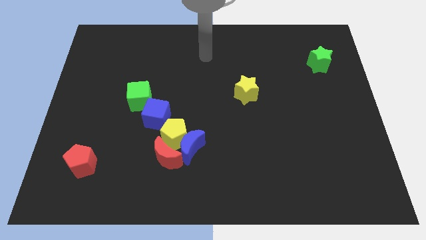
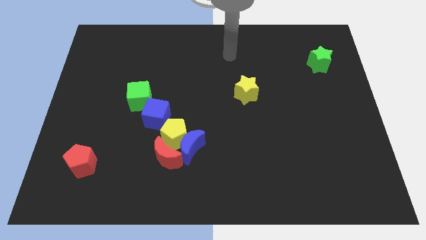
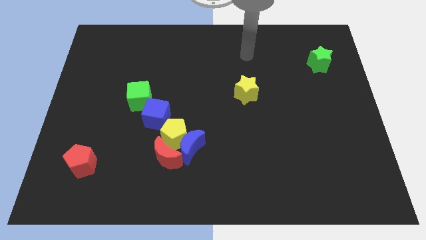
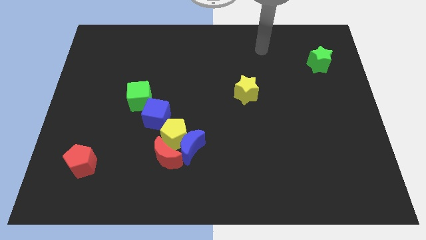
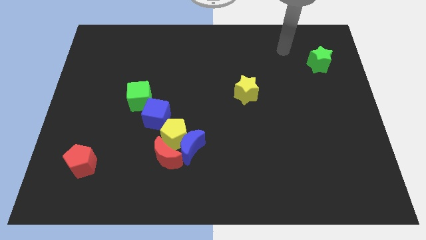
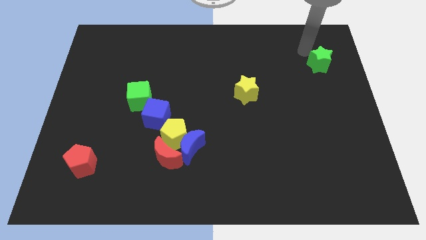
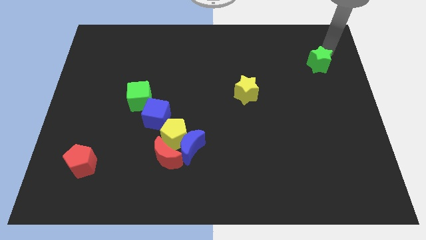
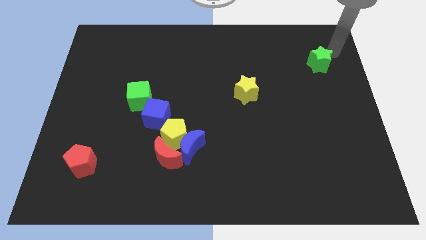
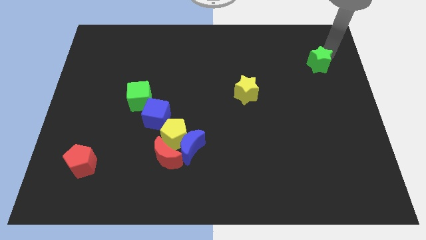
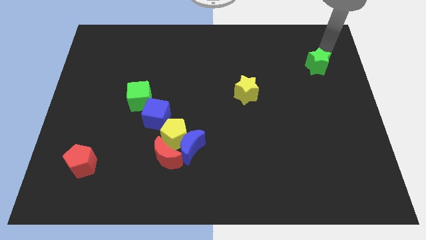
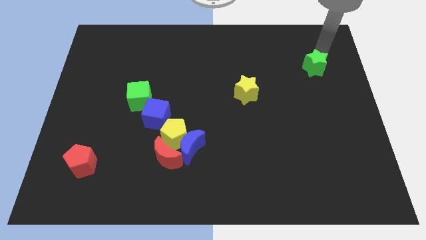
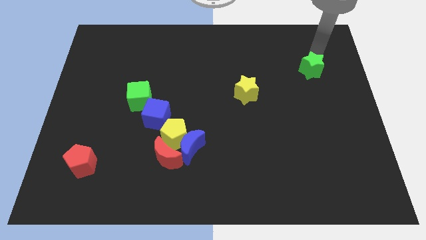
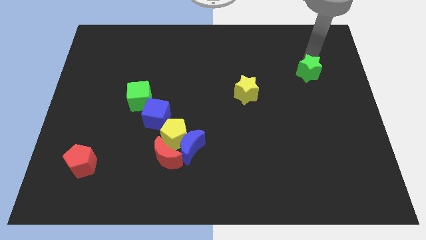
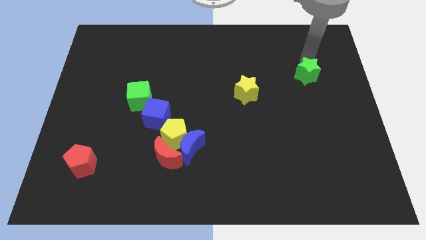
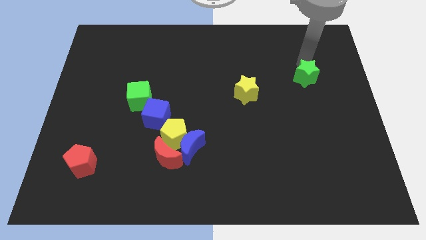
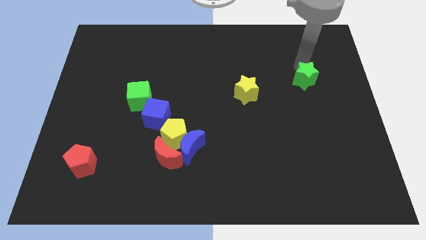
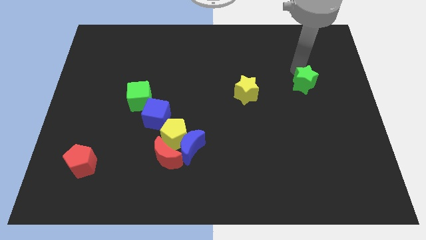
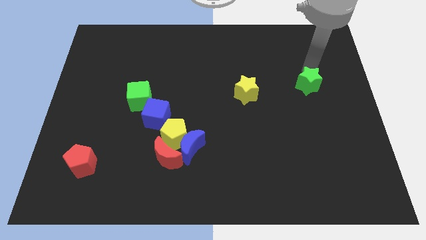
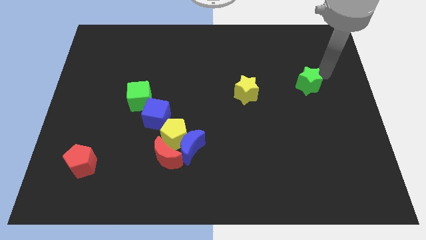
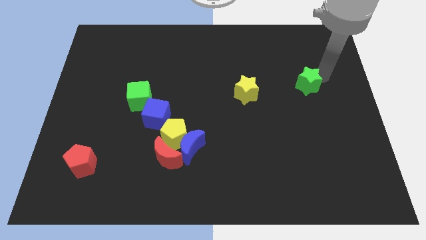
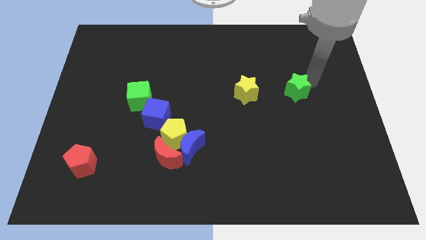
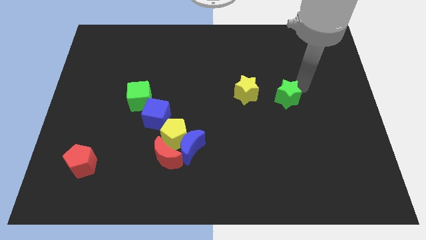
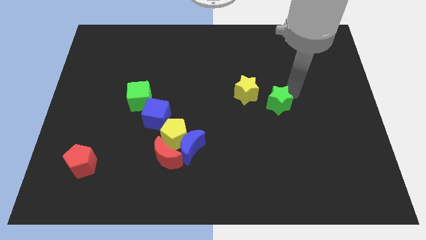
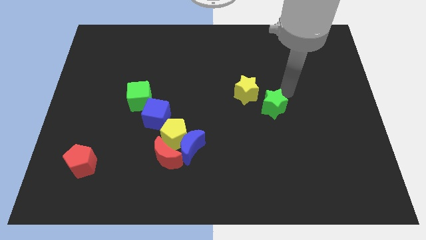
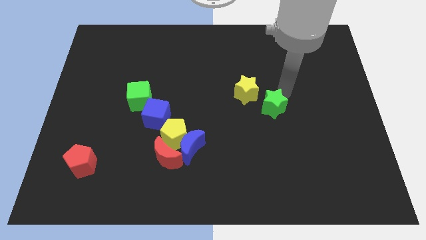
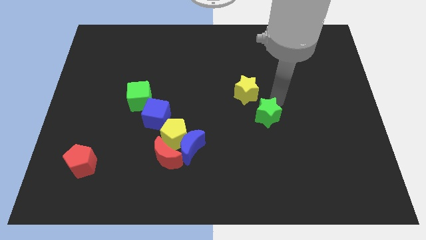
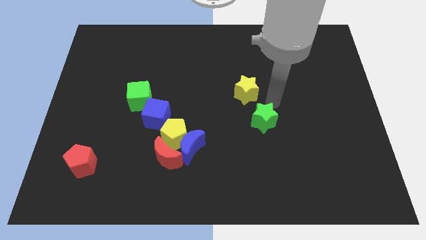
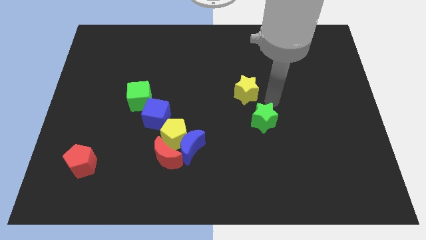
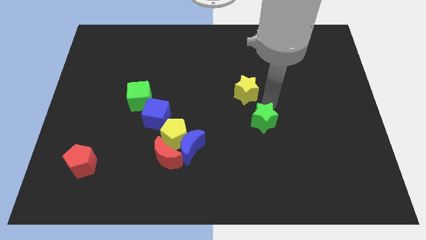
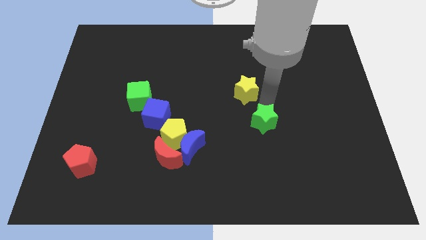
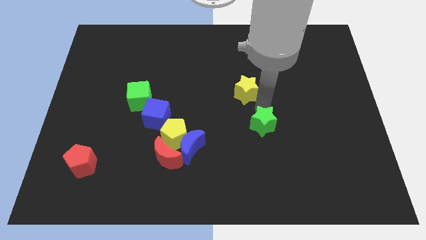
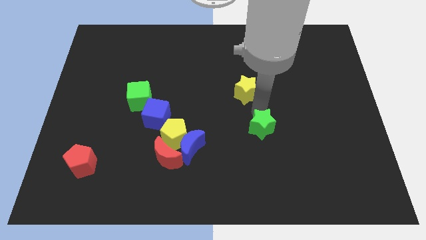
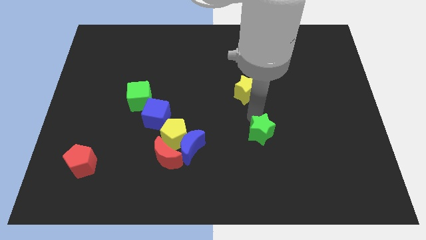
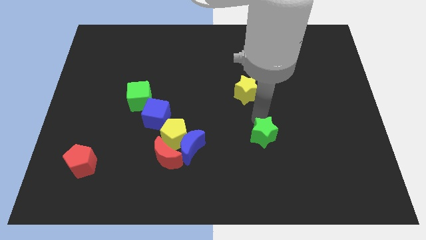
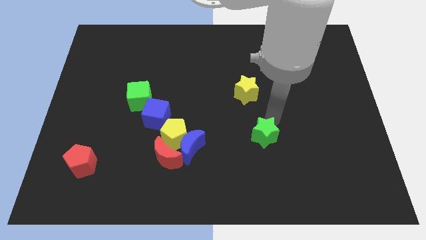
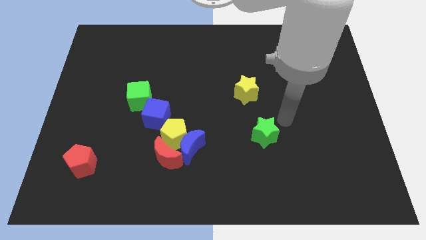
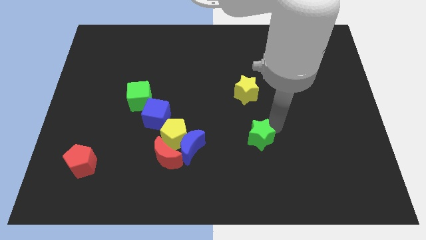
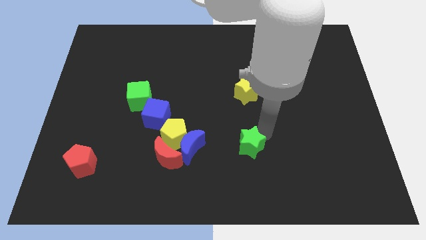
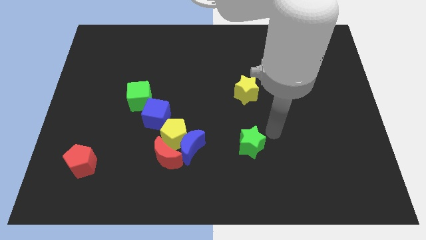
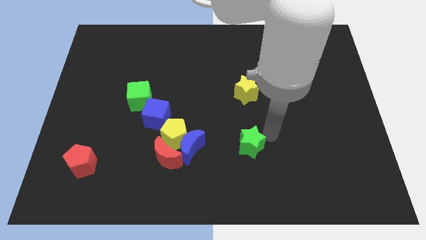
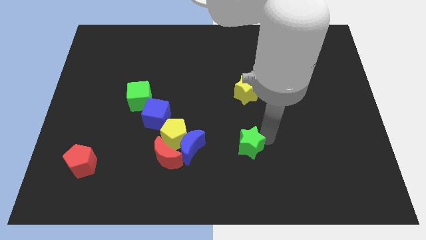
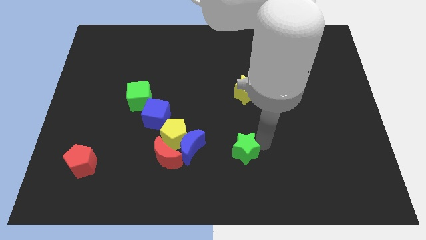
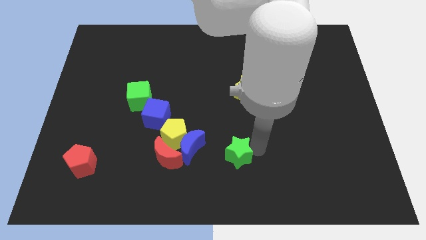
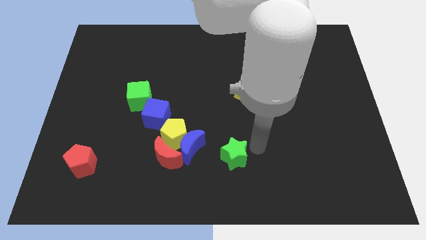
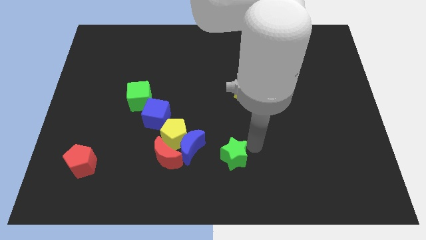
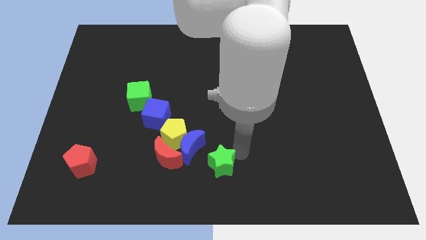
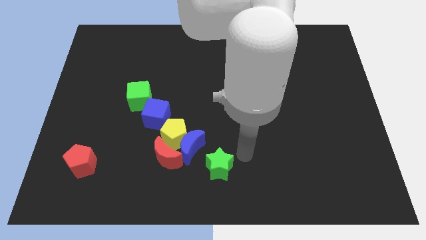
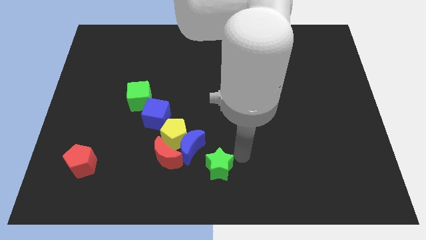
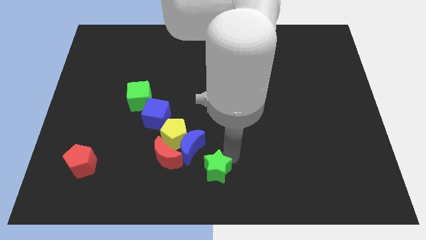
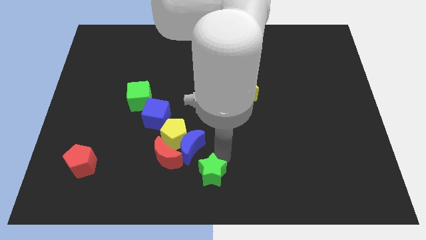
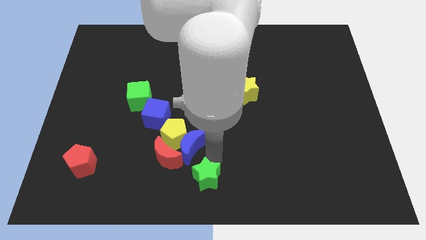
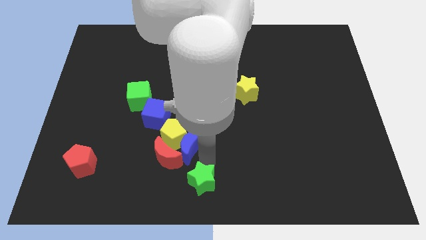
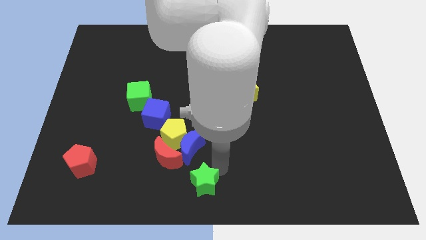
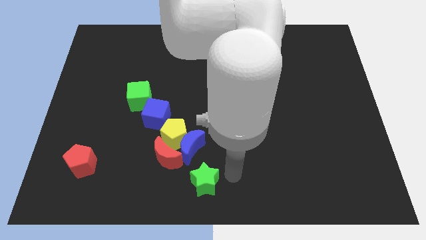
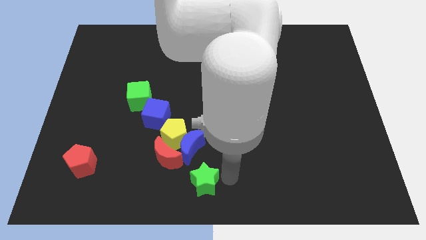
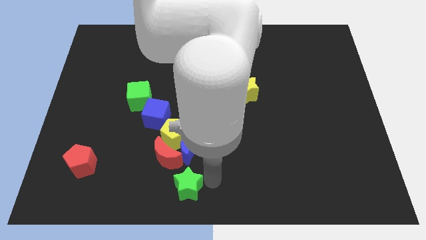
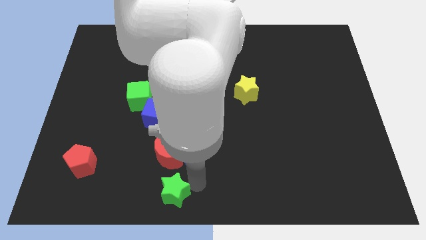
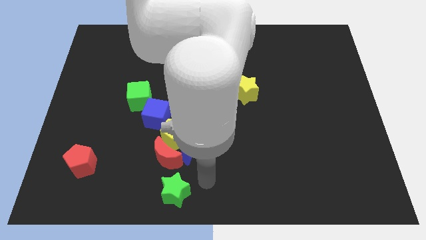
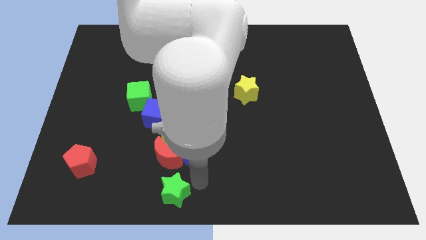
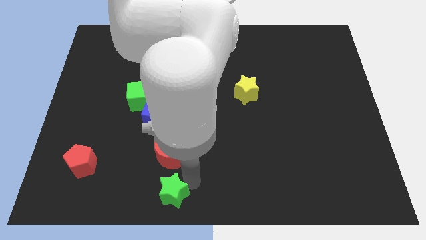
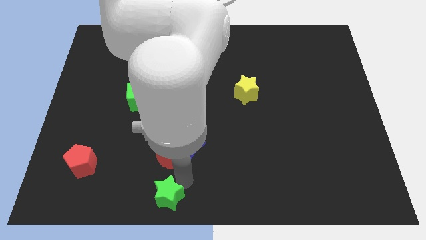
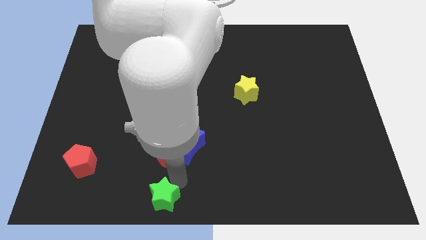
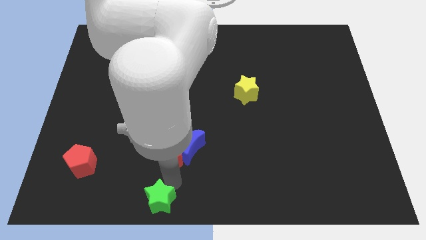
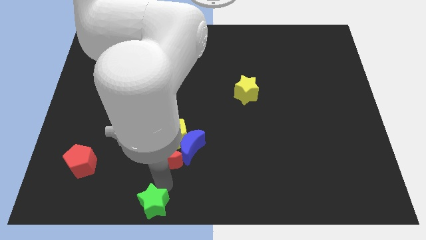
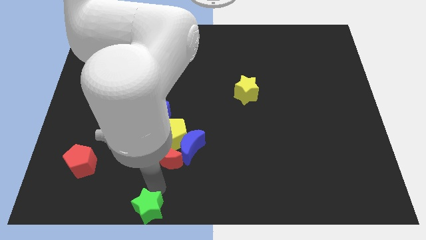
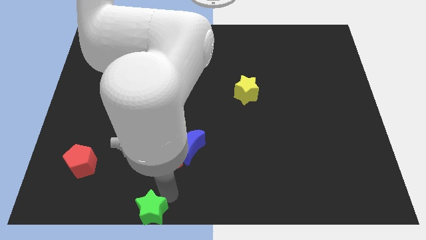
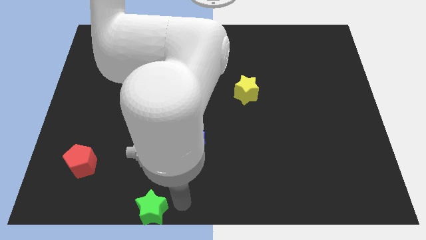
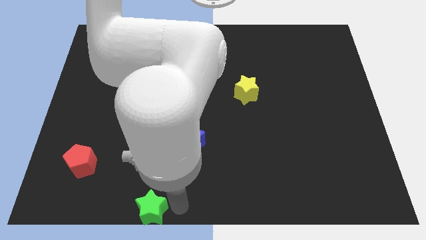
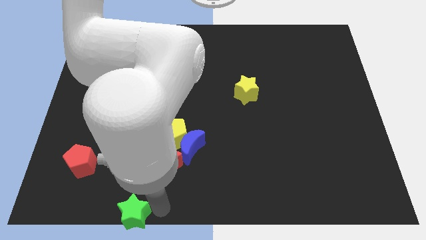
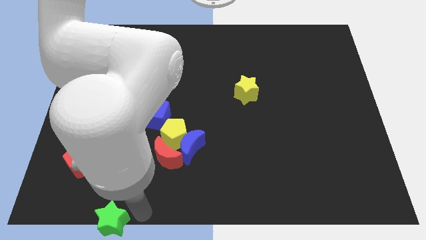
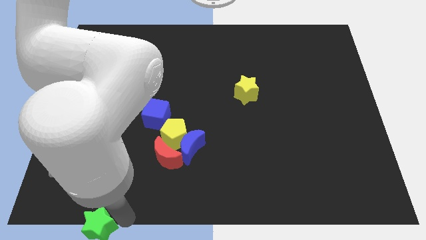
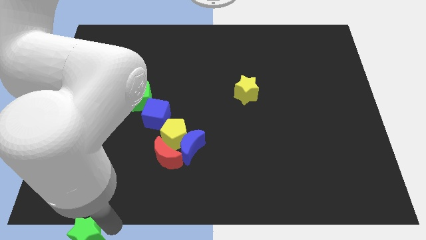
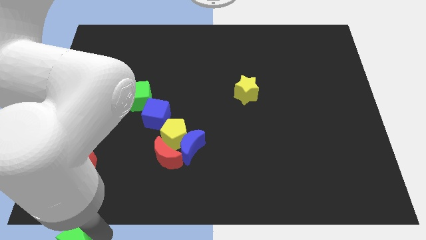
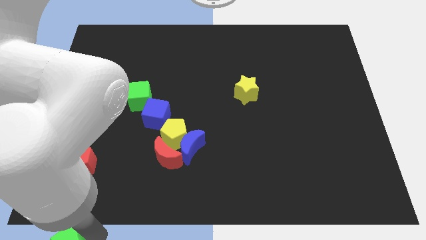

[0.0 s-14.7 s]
slide the green star to the bottom left of the board

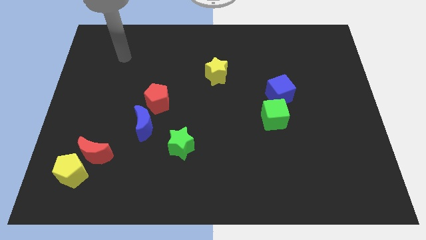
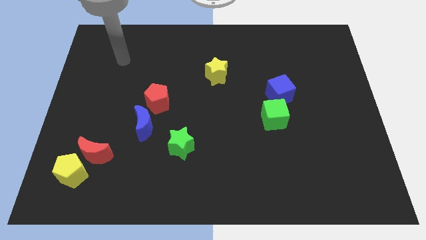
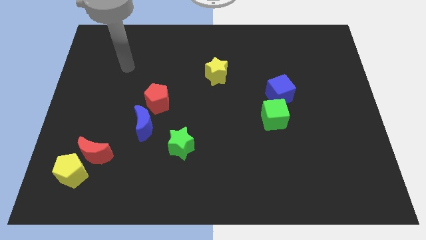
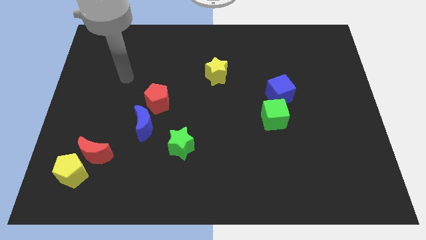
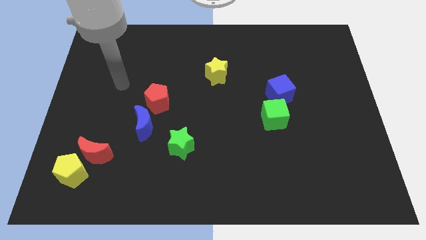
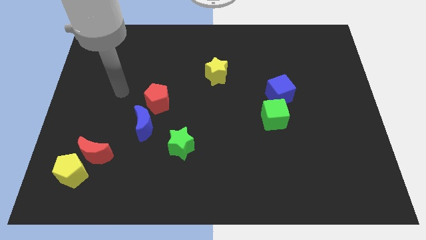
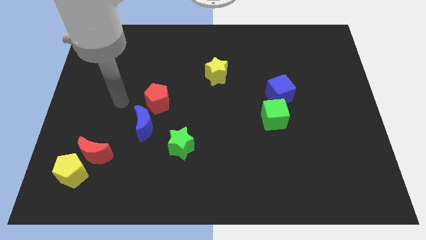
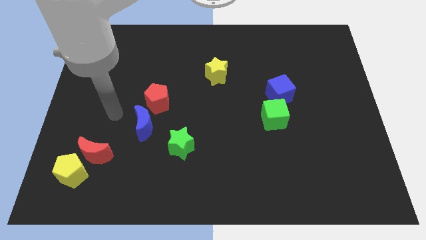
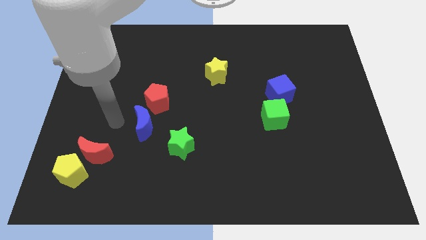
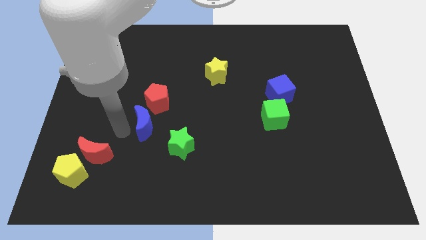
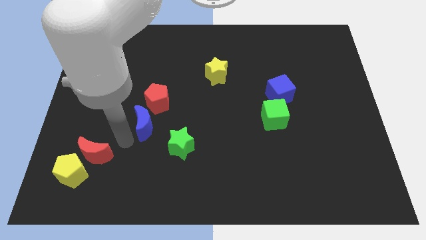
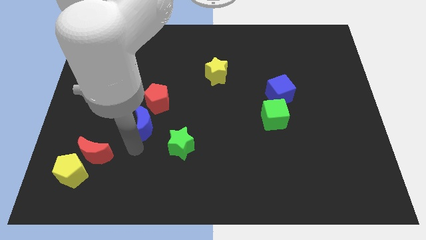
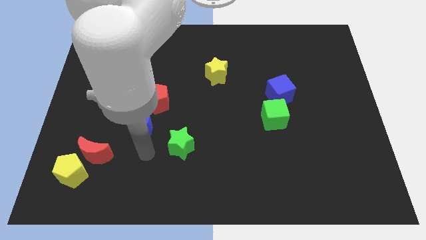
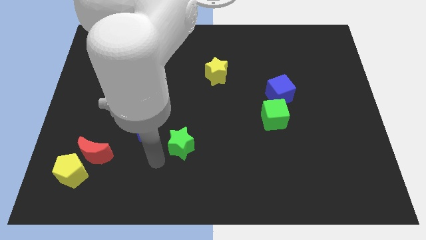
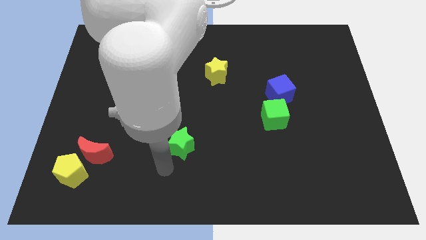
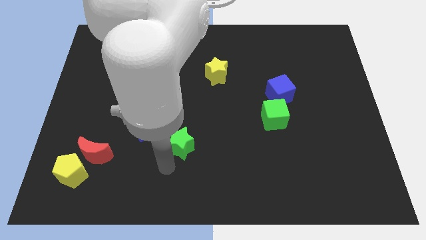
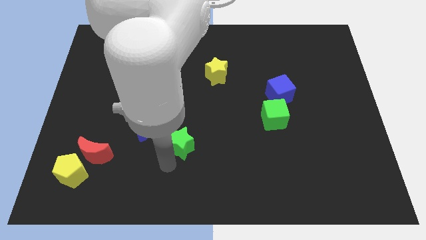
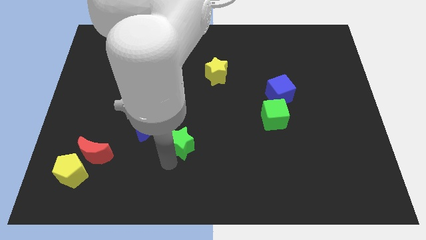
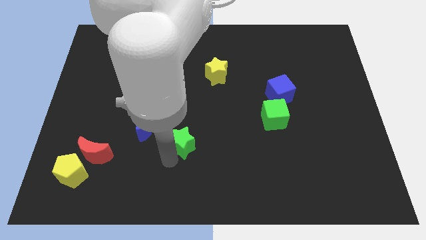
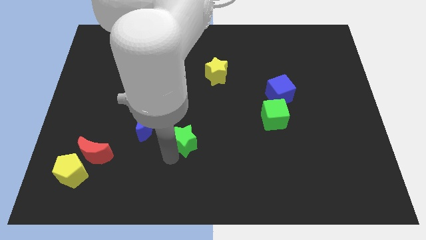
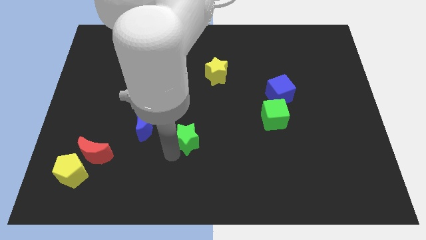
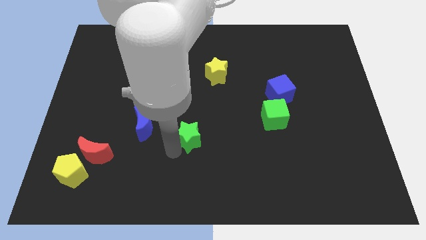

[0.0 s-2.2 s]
push the green star to the middle of the board
